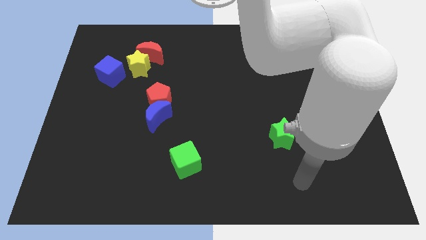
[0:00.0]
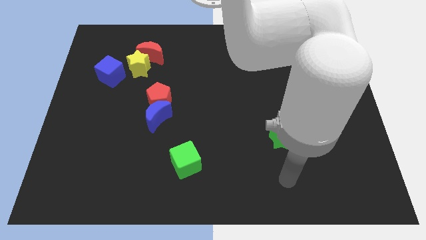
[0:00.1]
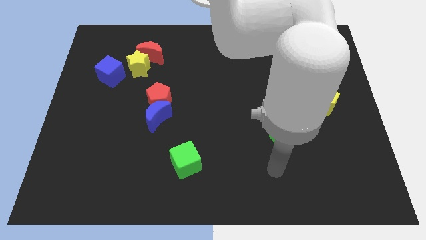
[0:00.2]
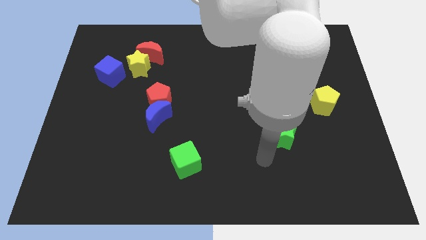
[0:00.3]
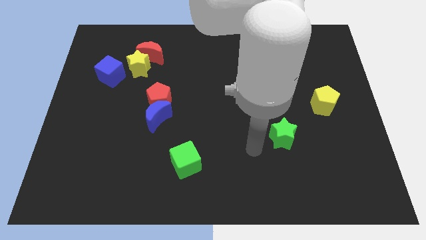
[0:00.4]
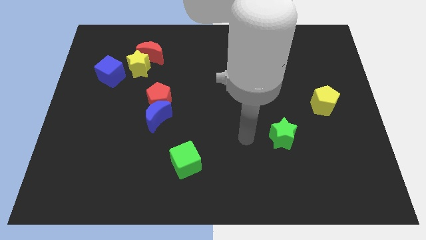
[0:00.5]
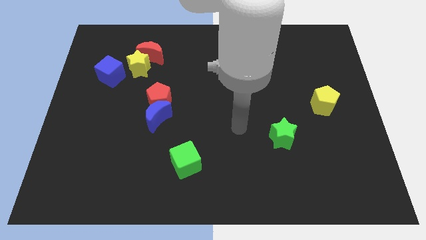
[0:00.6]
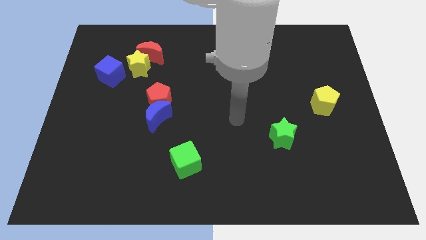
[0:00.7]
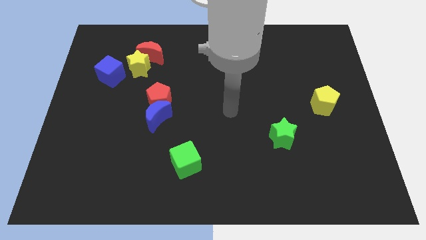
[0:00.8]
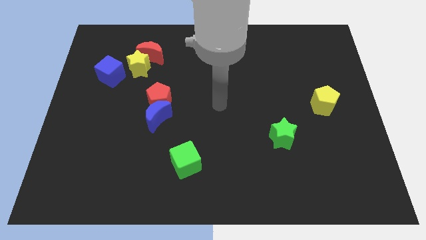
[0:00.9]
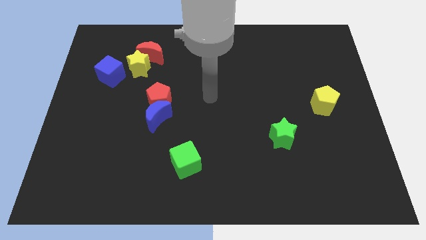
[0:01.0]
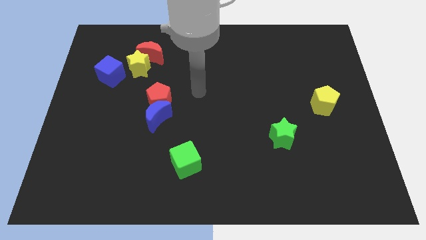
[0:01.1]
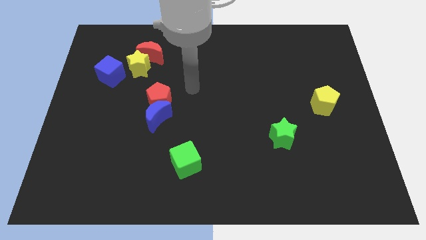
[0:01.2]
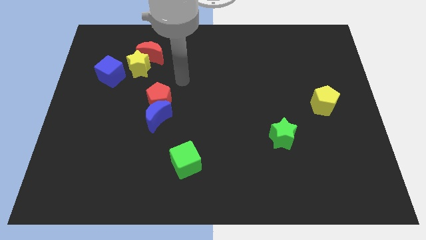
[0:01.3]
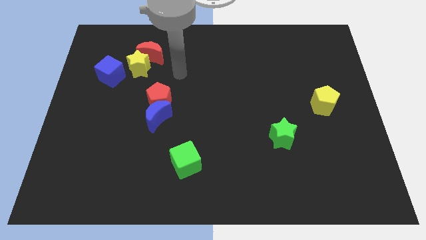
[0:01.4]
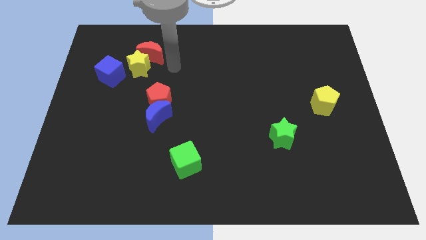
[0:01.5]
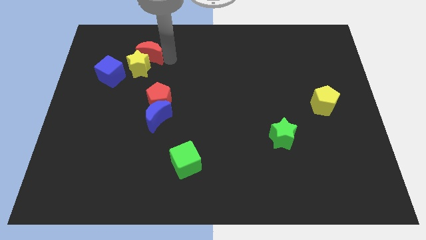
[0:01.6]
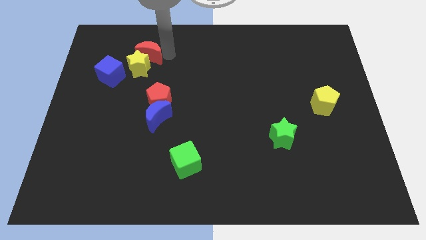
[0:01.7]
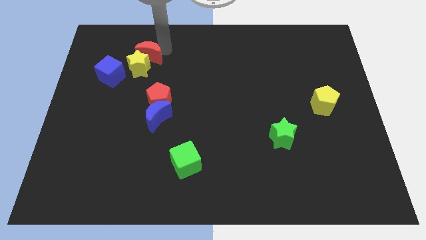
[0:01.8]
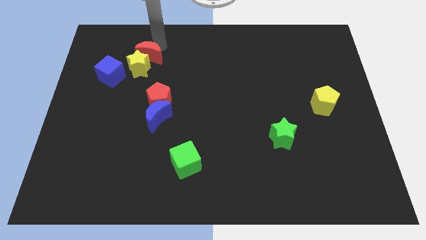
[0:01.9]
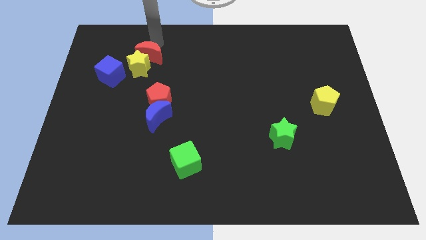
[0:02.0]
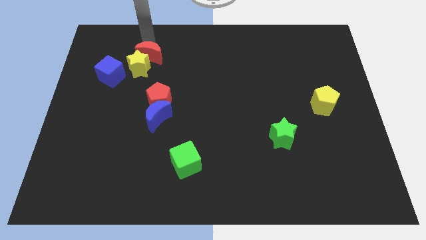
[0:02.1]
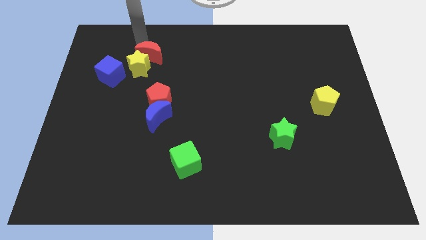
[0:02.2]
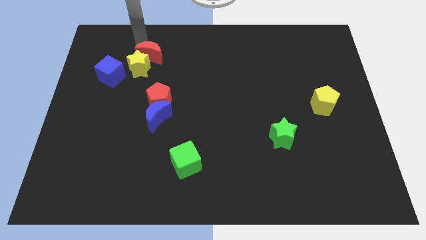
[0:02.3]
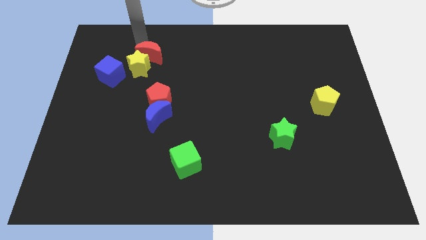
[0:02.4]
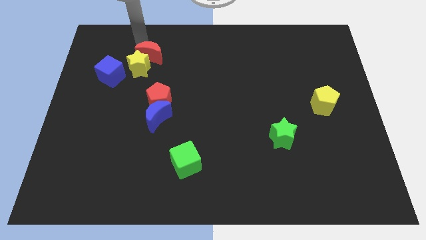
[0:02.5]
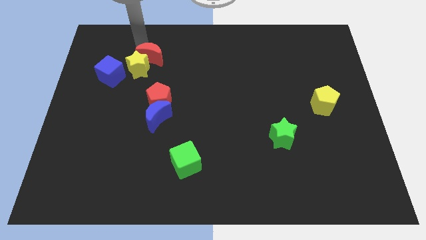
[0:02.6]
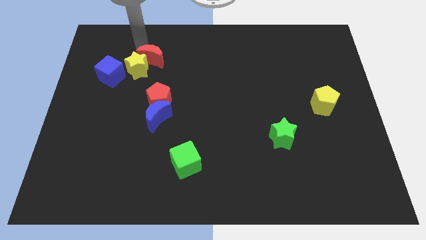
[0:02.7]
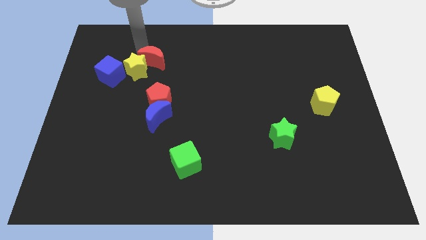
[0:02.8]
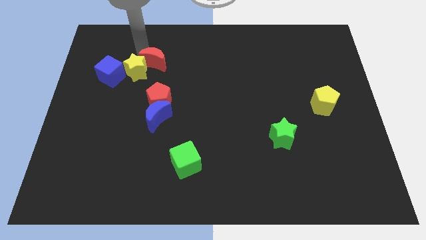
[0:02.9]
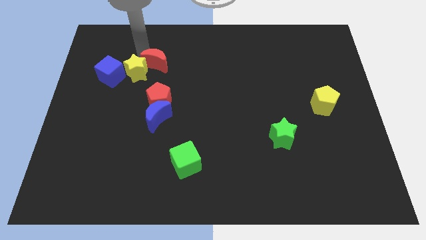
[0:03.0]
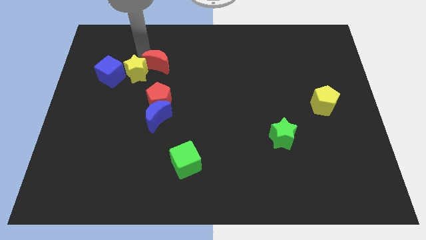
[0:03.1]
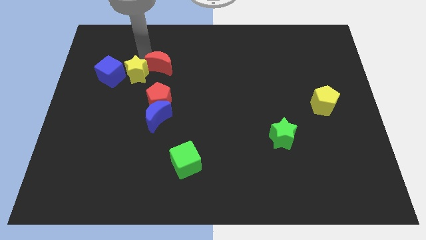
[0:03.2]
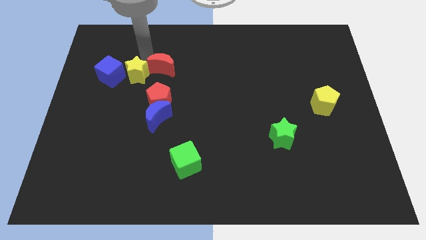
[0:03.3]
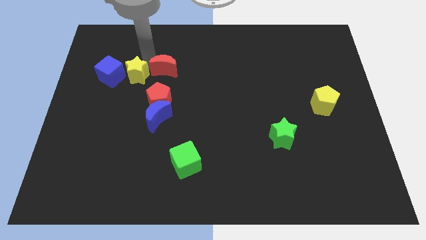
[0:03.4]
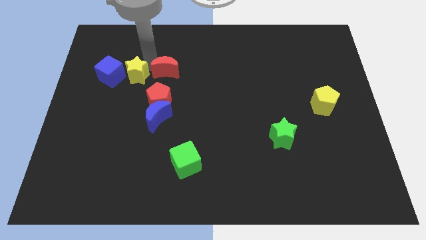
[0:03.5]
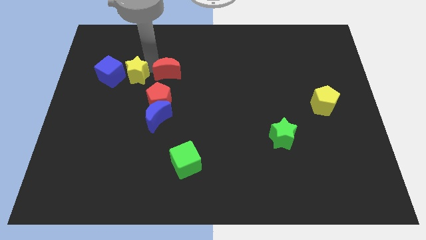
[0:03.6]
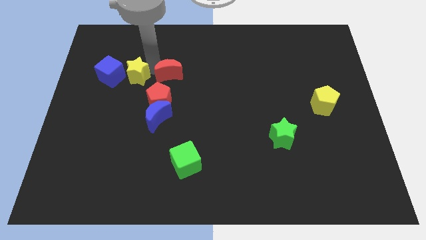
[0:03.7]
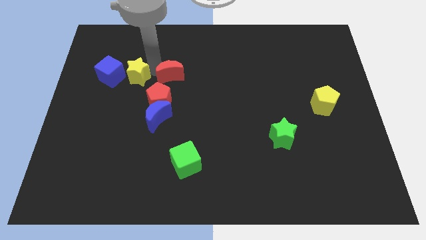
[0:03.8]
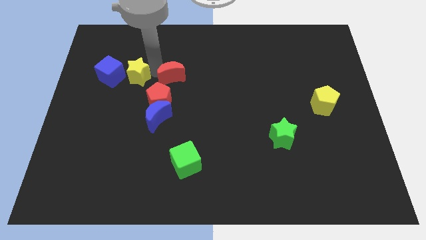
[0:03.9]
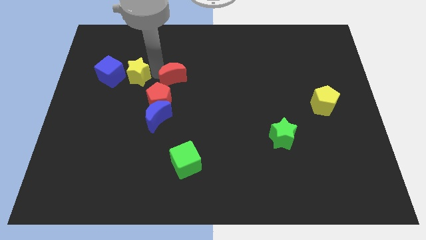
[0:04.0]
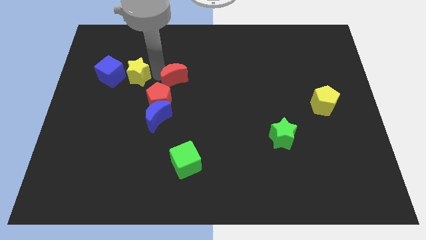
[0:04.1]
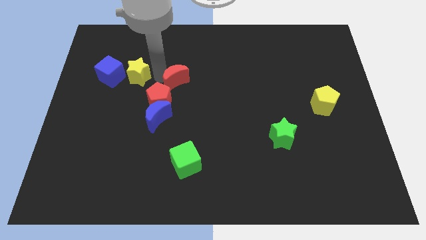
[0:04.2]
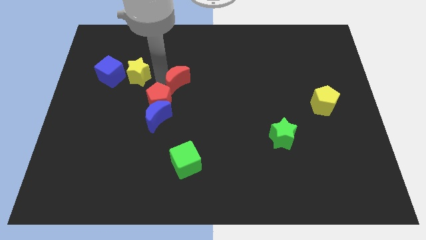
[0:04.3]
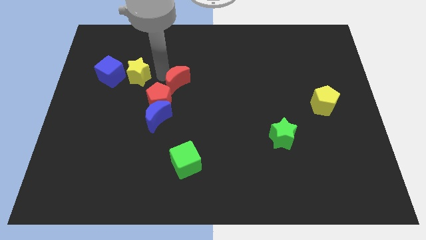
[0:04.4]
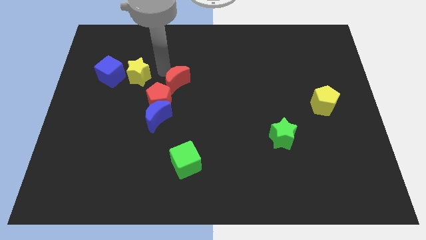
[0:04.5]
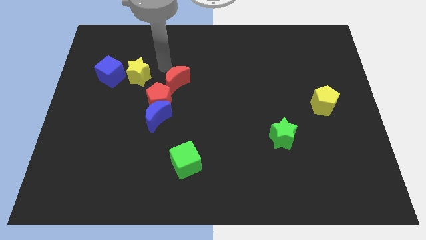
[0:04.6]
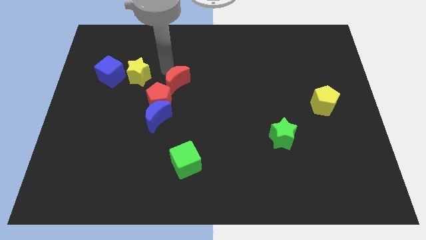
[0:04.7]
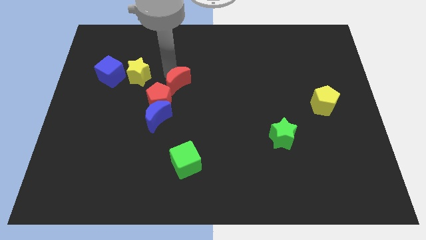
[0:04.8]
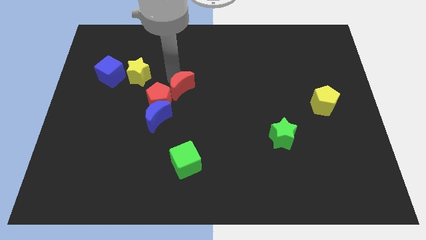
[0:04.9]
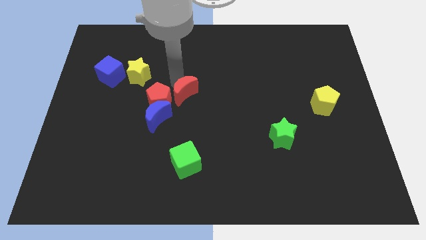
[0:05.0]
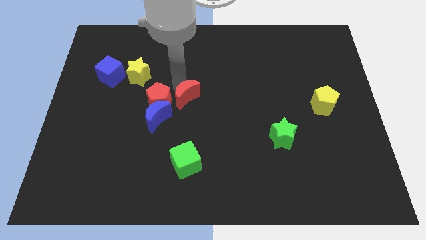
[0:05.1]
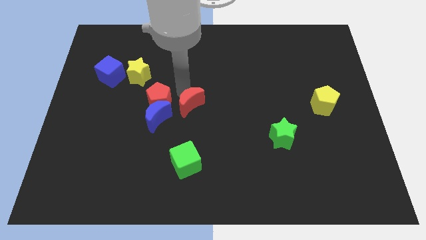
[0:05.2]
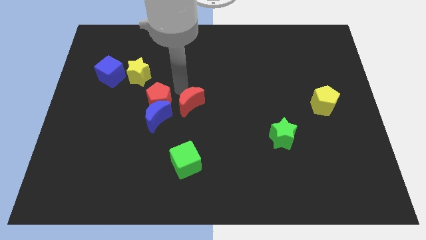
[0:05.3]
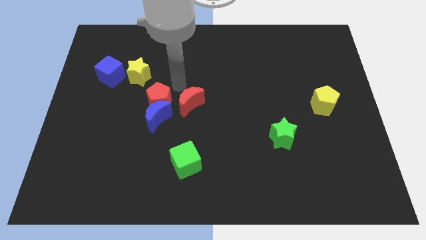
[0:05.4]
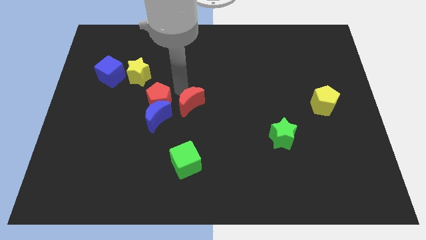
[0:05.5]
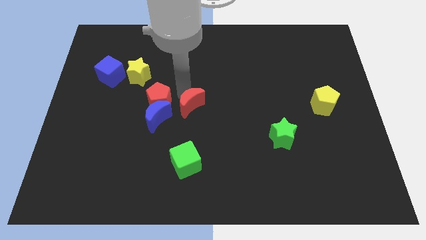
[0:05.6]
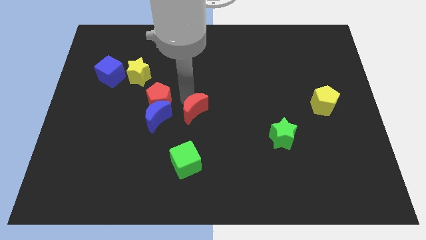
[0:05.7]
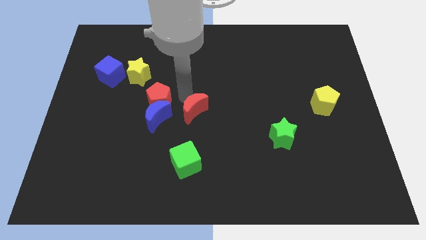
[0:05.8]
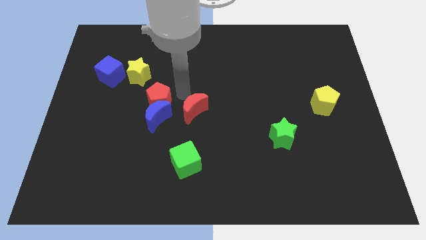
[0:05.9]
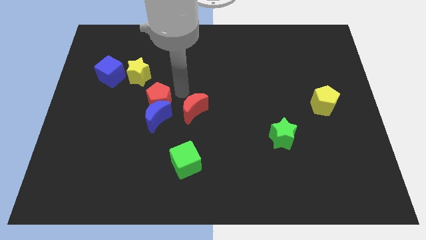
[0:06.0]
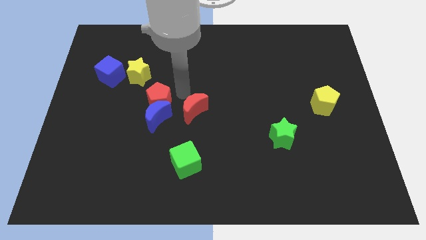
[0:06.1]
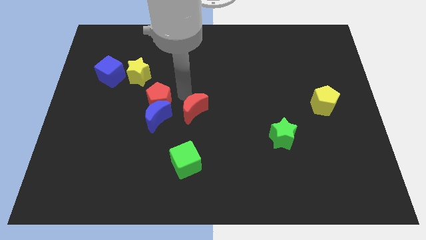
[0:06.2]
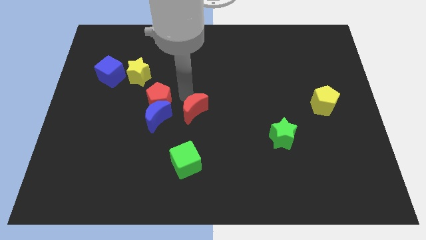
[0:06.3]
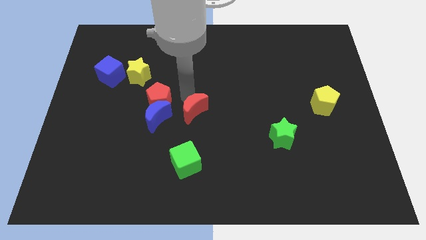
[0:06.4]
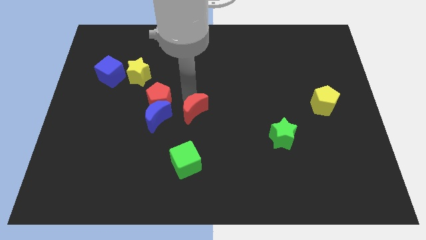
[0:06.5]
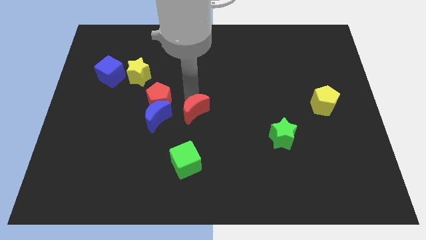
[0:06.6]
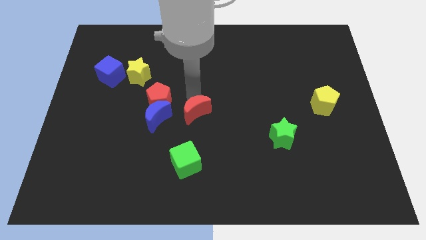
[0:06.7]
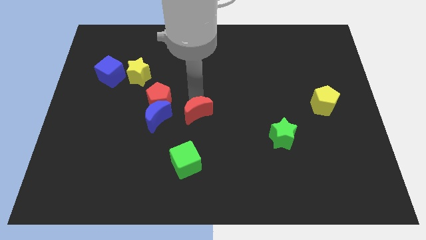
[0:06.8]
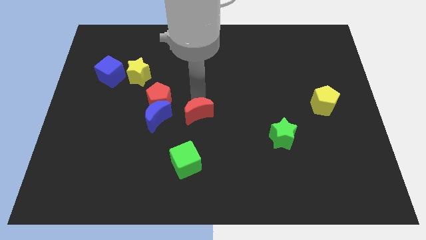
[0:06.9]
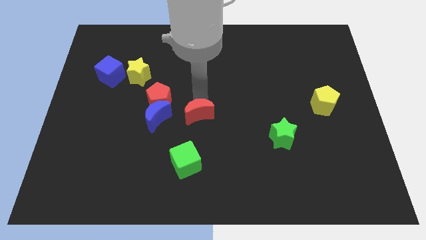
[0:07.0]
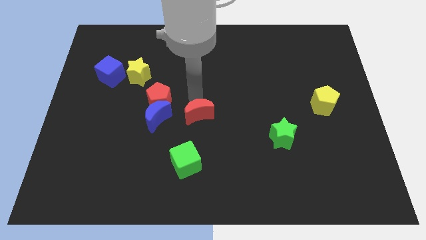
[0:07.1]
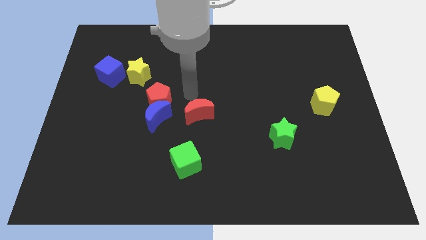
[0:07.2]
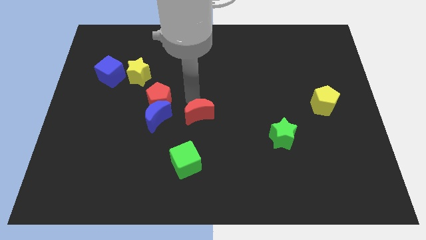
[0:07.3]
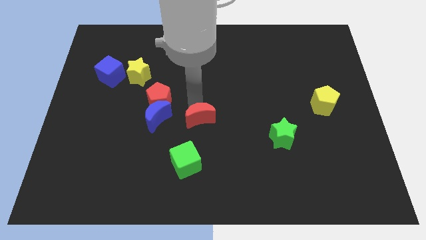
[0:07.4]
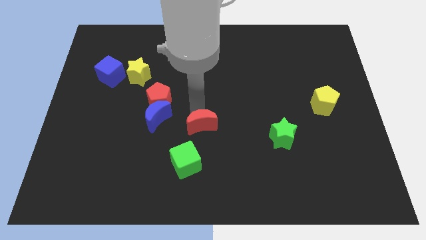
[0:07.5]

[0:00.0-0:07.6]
push the red moon to the top right side of the green cube
